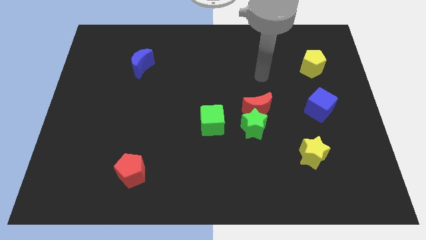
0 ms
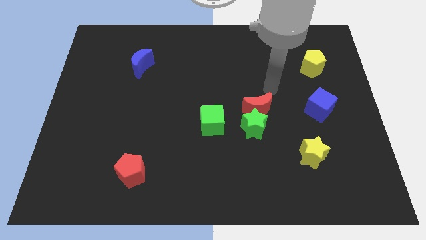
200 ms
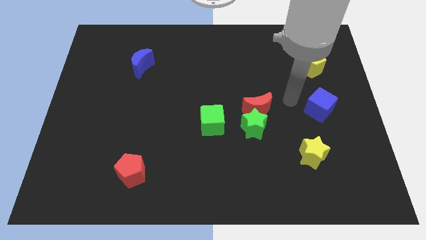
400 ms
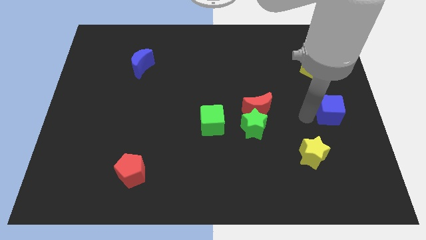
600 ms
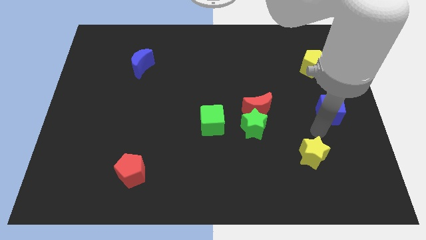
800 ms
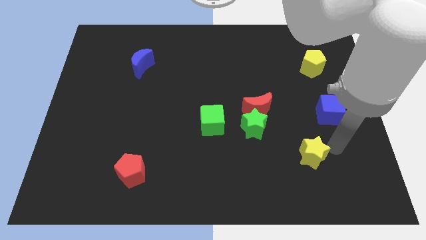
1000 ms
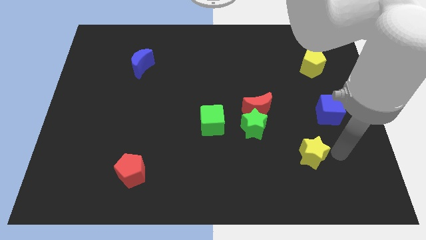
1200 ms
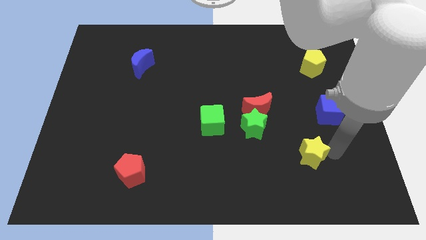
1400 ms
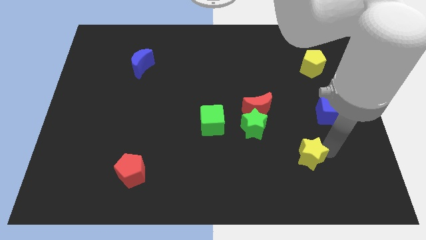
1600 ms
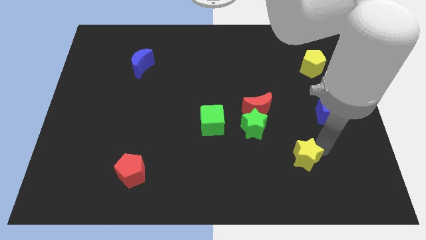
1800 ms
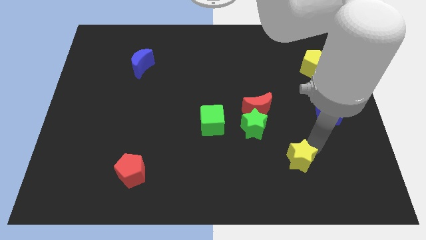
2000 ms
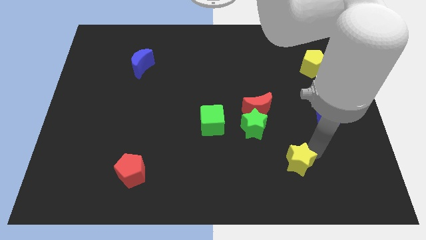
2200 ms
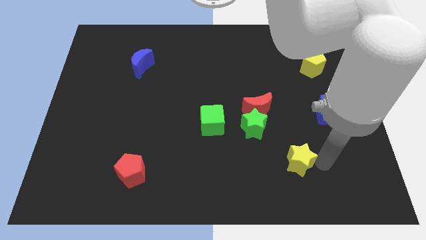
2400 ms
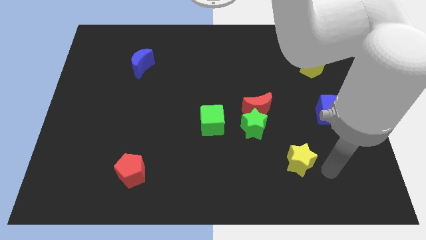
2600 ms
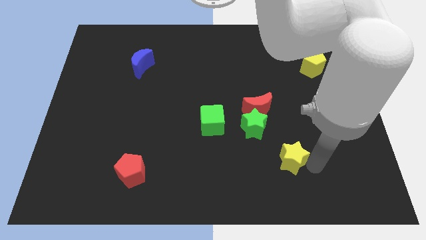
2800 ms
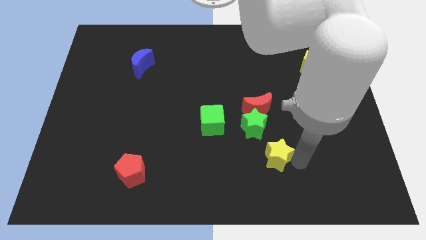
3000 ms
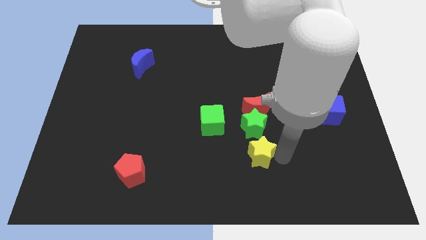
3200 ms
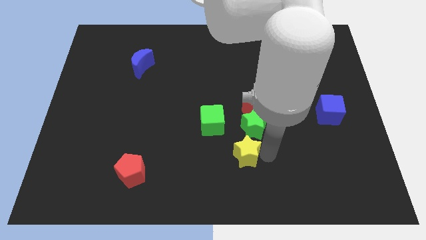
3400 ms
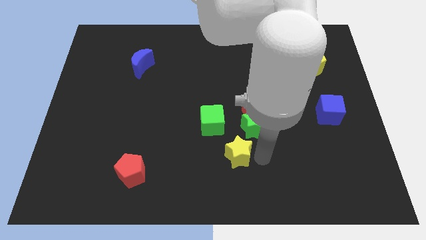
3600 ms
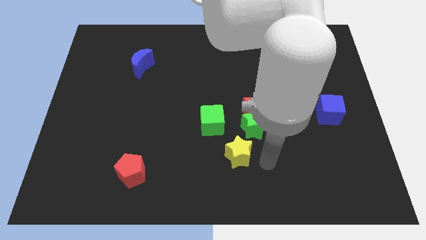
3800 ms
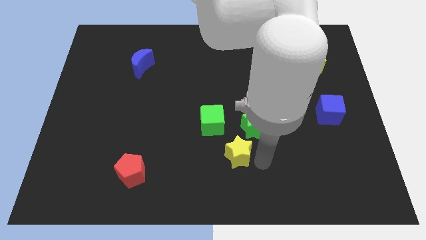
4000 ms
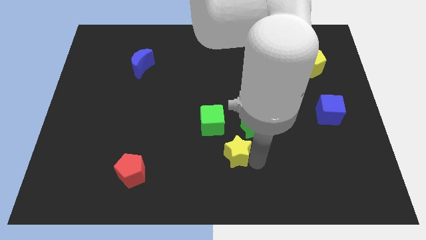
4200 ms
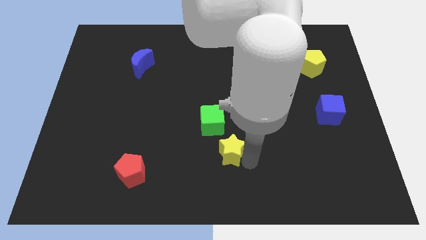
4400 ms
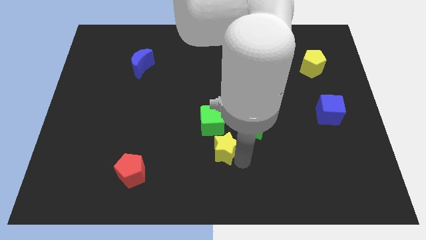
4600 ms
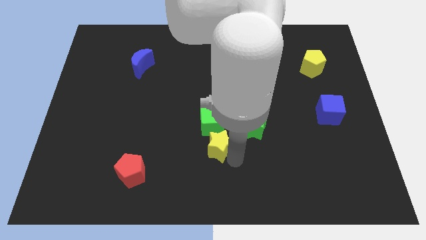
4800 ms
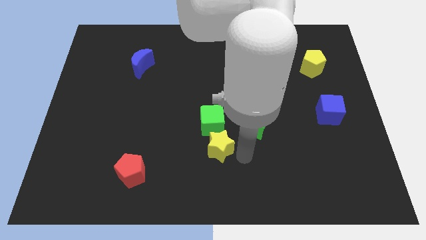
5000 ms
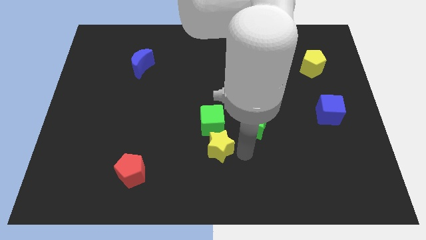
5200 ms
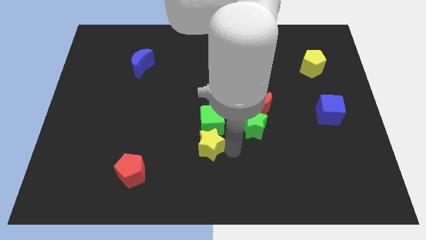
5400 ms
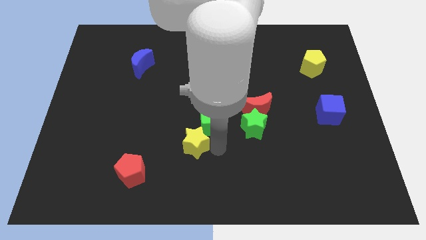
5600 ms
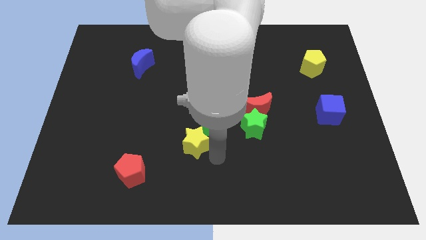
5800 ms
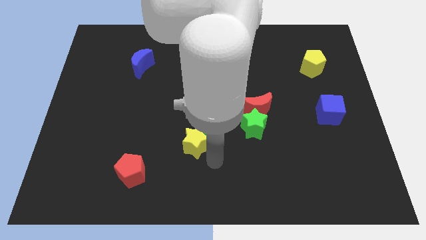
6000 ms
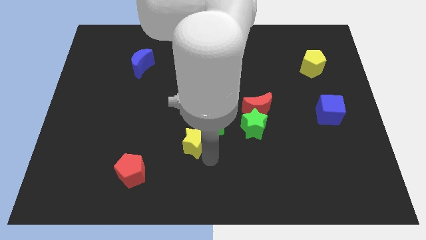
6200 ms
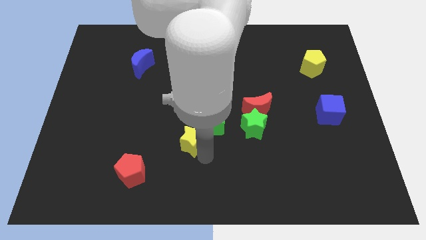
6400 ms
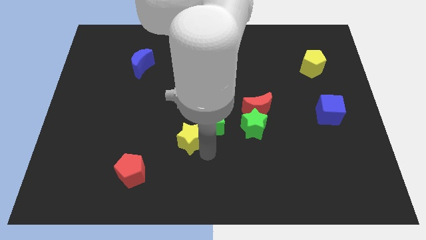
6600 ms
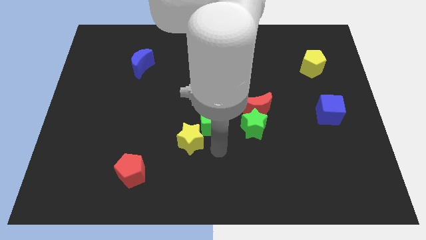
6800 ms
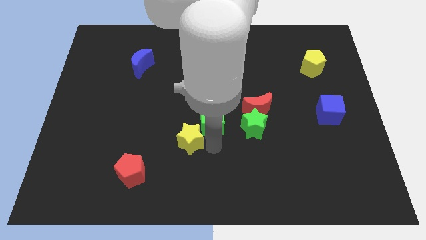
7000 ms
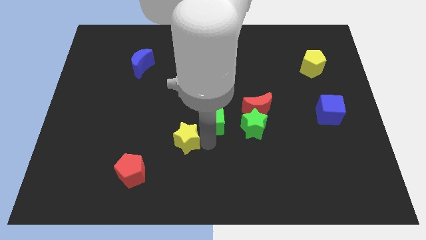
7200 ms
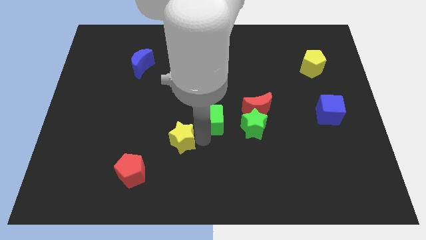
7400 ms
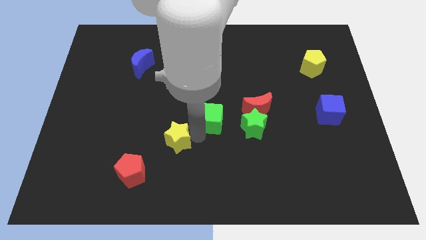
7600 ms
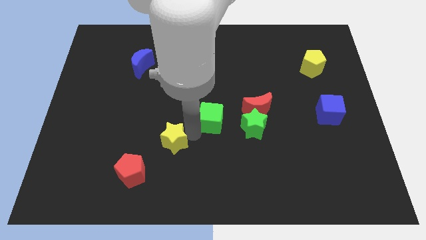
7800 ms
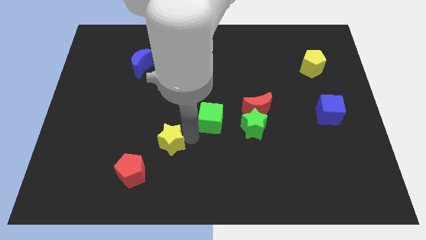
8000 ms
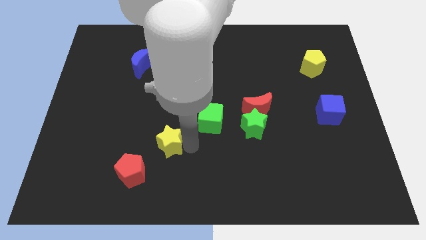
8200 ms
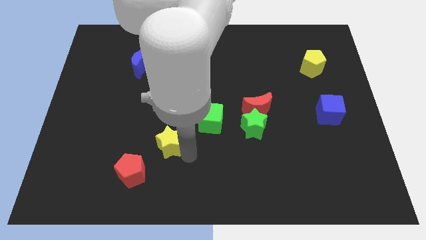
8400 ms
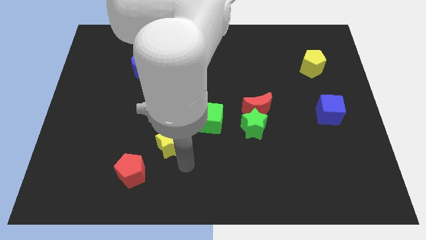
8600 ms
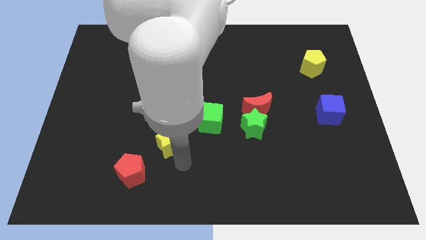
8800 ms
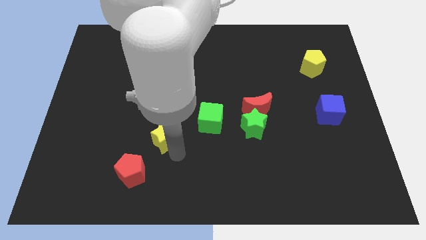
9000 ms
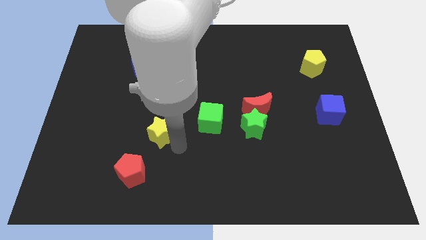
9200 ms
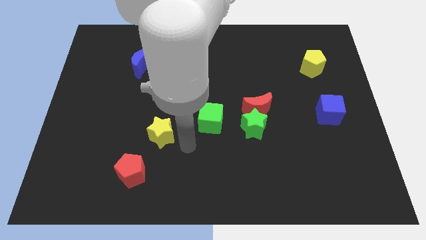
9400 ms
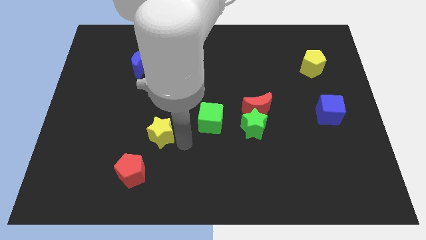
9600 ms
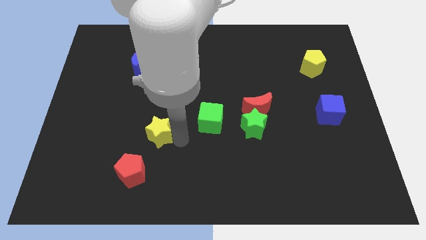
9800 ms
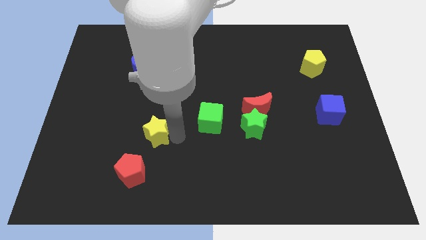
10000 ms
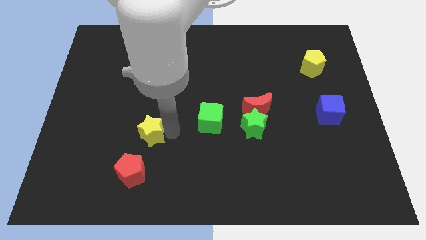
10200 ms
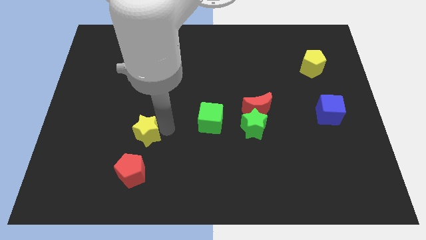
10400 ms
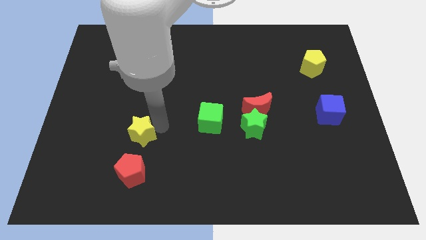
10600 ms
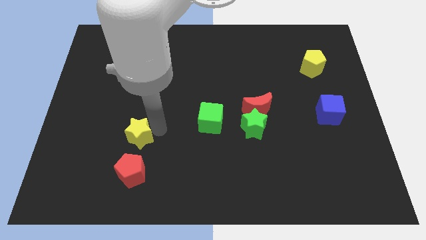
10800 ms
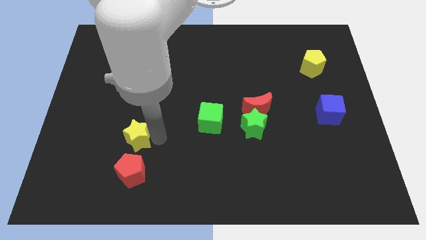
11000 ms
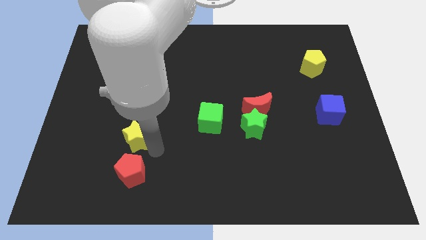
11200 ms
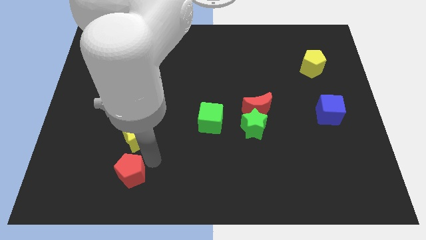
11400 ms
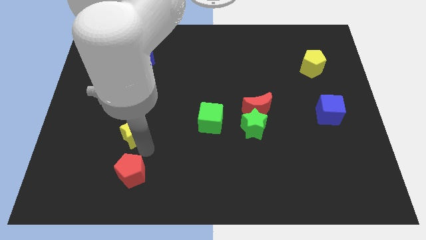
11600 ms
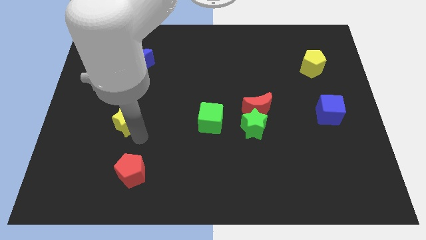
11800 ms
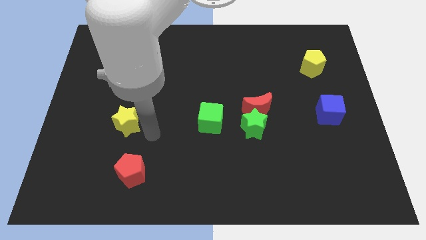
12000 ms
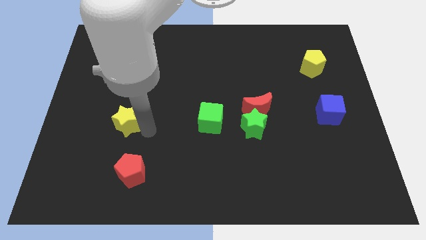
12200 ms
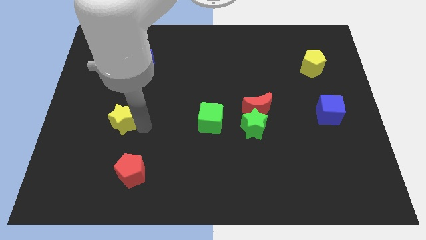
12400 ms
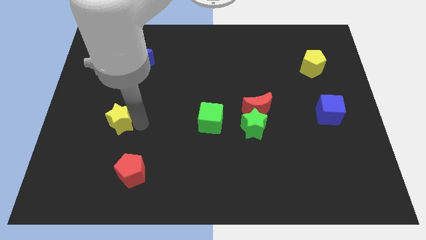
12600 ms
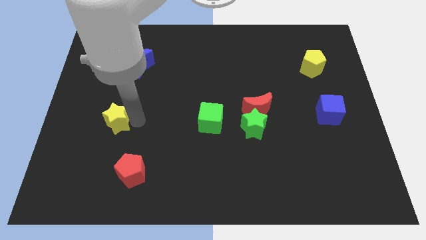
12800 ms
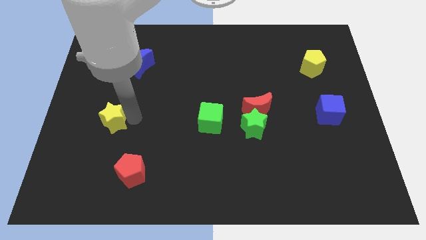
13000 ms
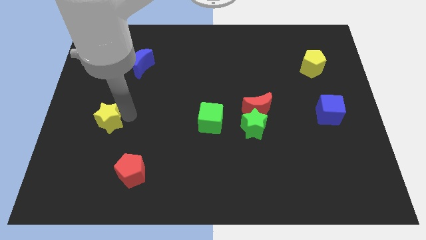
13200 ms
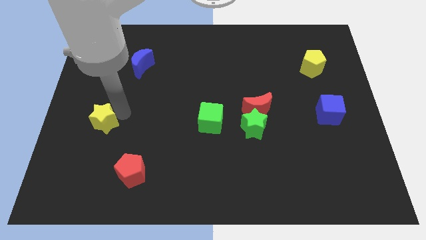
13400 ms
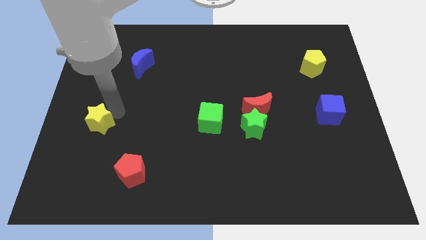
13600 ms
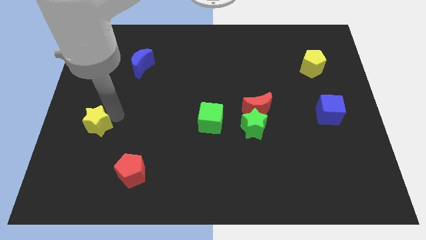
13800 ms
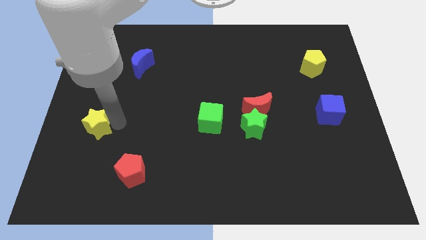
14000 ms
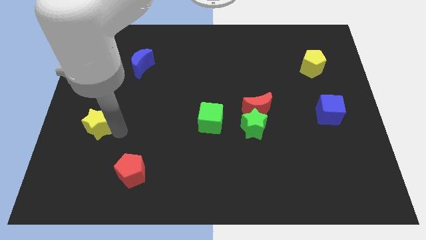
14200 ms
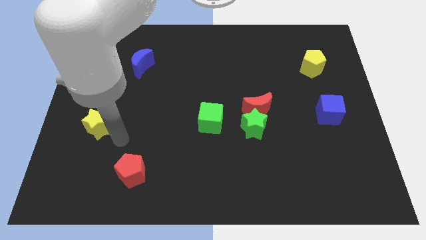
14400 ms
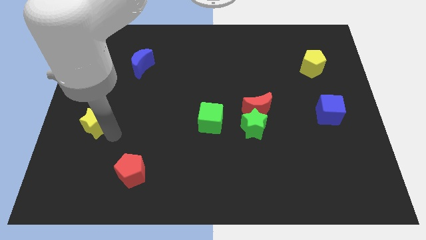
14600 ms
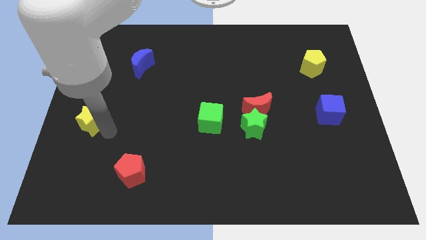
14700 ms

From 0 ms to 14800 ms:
slide the yellow star to the left side of the board
